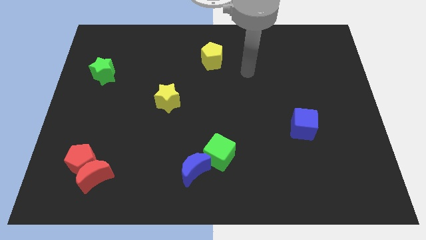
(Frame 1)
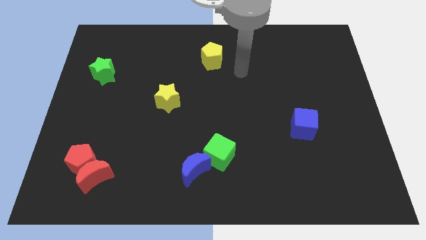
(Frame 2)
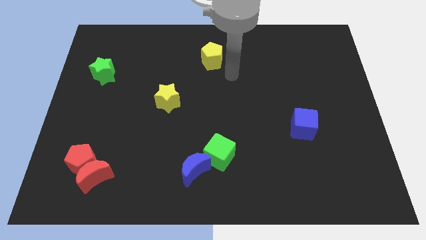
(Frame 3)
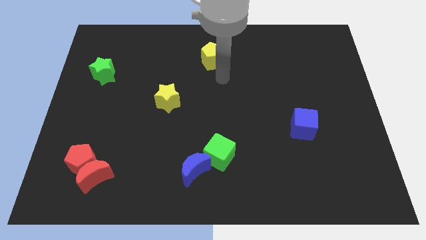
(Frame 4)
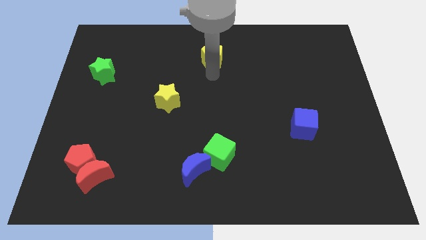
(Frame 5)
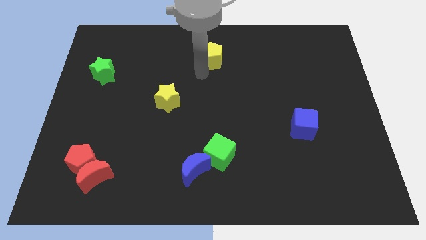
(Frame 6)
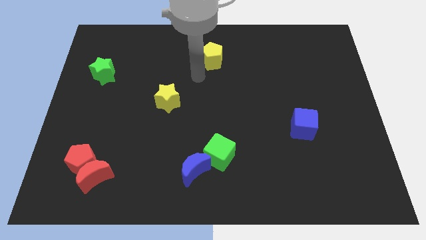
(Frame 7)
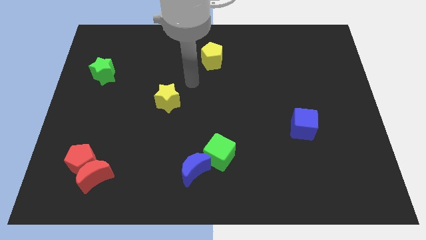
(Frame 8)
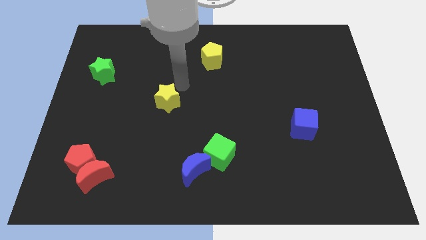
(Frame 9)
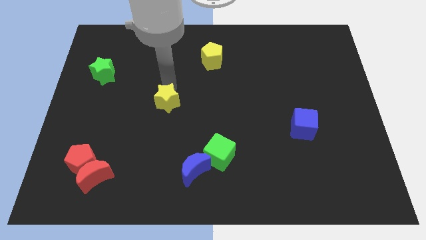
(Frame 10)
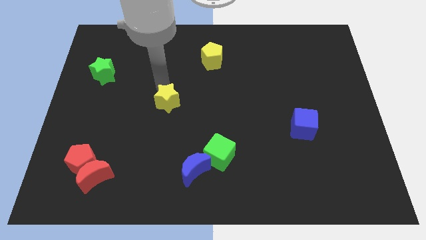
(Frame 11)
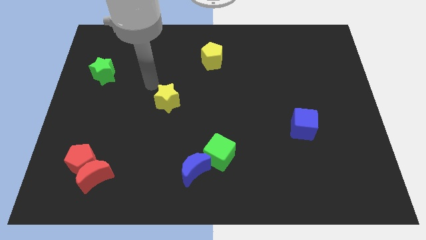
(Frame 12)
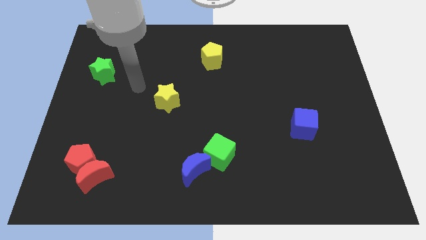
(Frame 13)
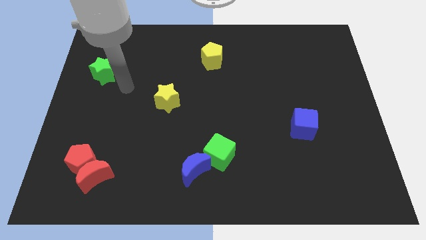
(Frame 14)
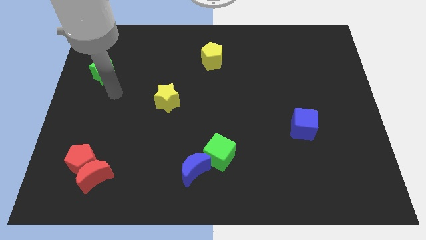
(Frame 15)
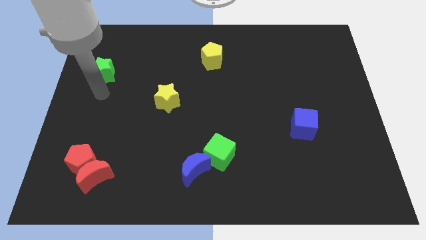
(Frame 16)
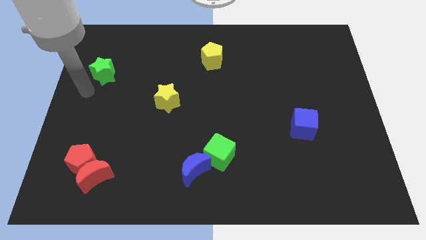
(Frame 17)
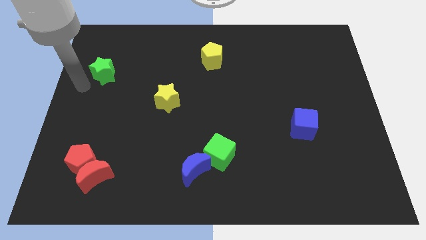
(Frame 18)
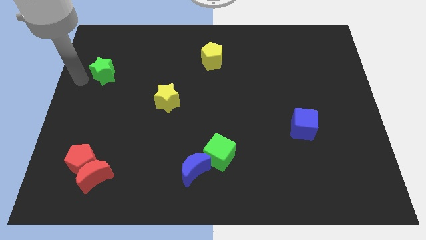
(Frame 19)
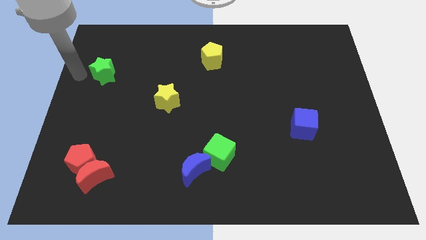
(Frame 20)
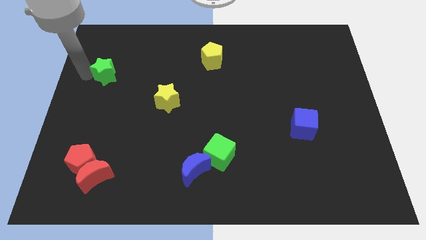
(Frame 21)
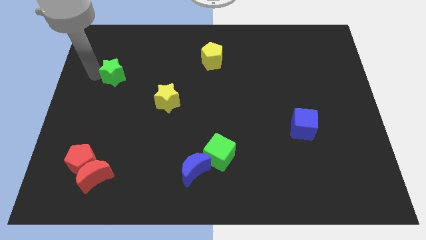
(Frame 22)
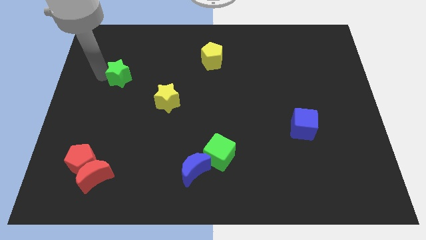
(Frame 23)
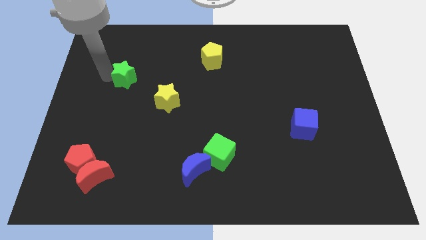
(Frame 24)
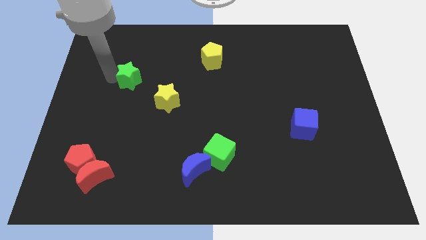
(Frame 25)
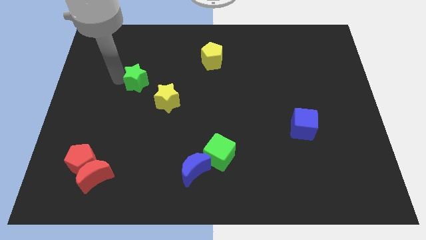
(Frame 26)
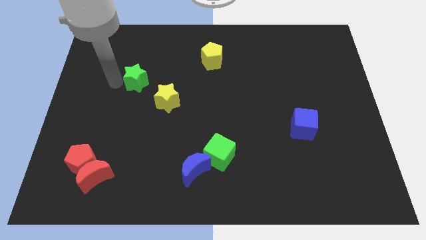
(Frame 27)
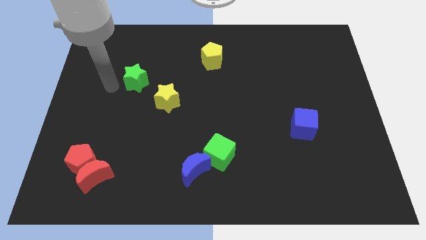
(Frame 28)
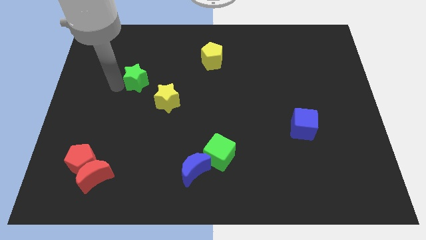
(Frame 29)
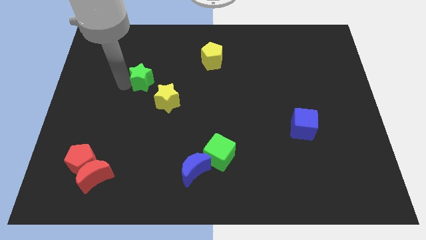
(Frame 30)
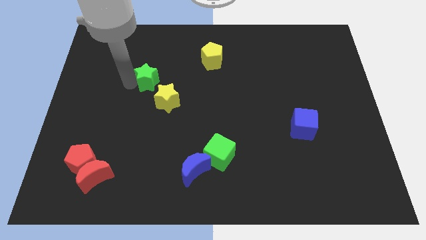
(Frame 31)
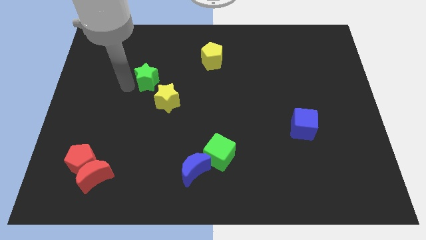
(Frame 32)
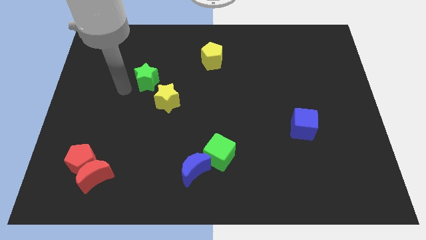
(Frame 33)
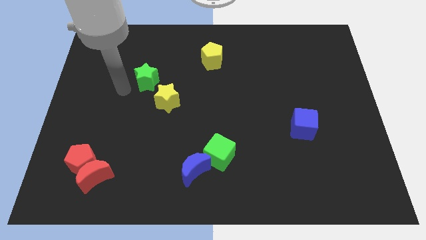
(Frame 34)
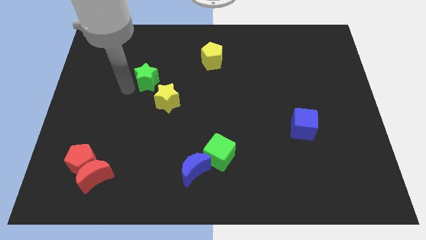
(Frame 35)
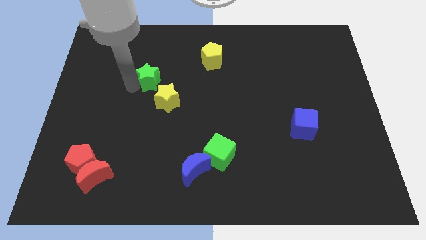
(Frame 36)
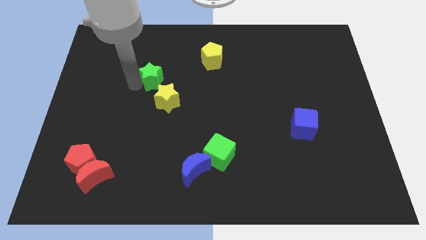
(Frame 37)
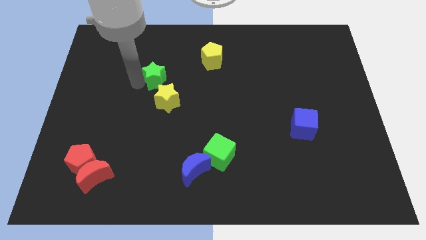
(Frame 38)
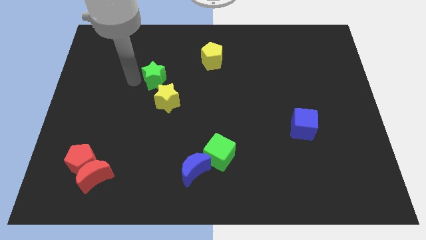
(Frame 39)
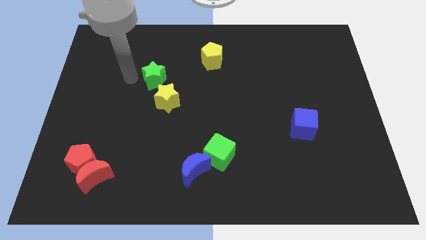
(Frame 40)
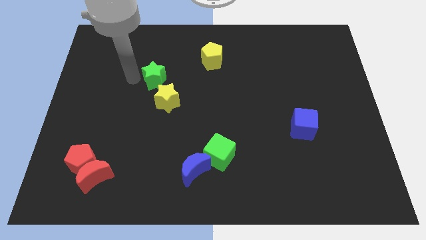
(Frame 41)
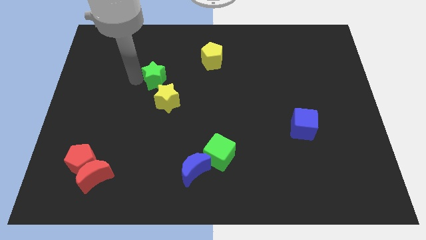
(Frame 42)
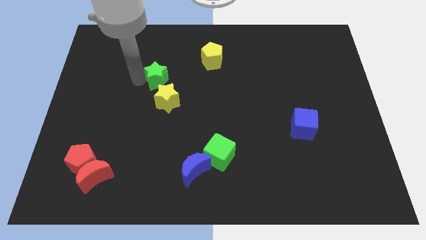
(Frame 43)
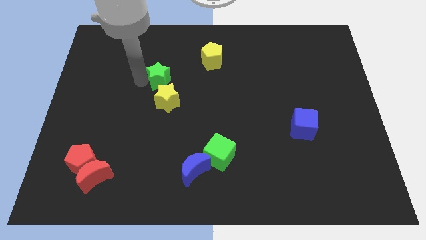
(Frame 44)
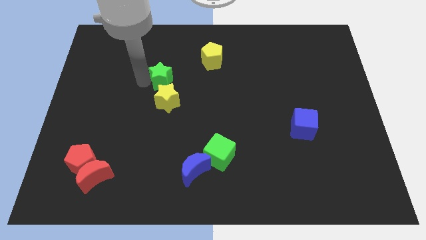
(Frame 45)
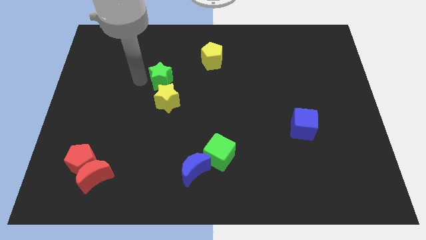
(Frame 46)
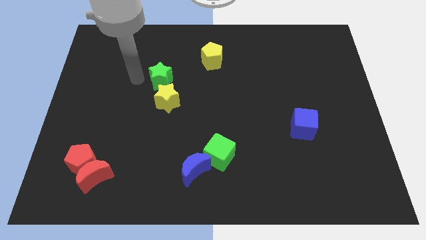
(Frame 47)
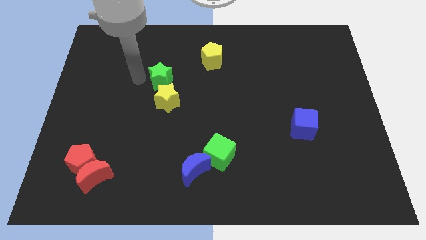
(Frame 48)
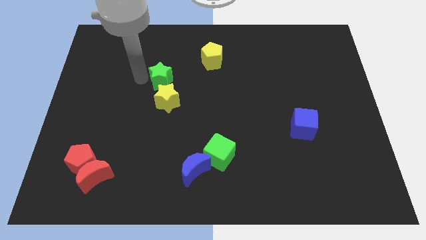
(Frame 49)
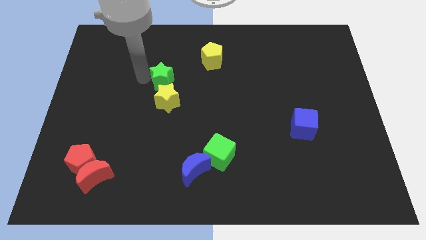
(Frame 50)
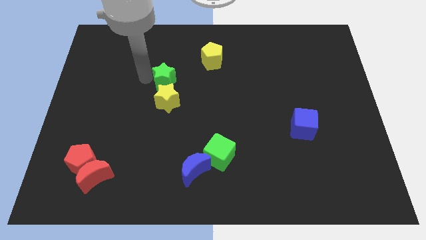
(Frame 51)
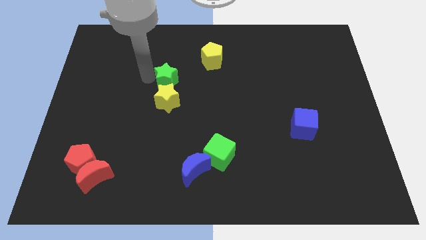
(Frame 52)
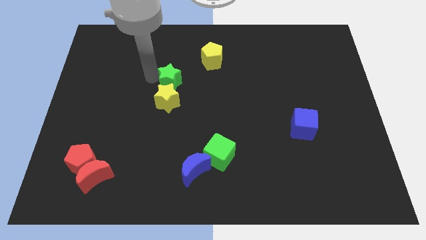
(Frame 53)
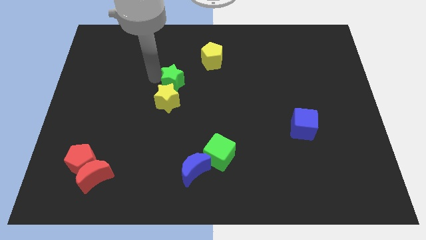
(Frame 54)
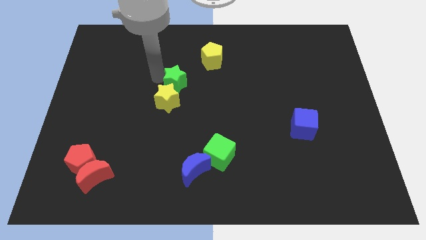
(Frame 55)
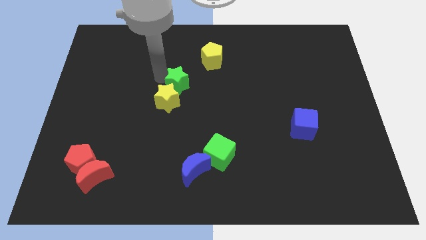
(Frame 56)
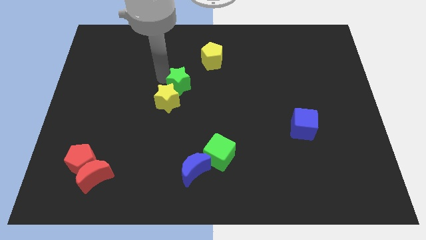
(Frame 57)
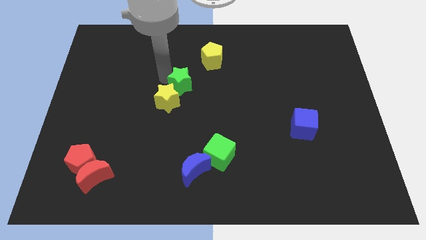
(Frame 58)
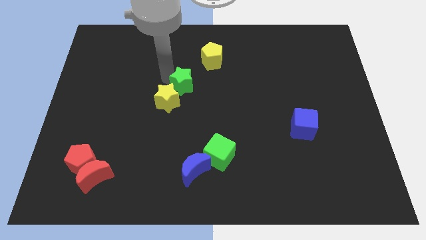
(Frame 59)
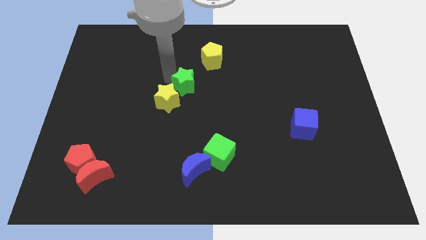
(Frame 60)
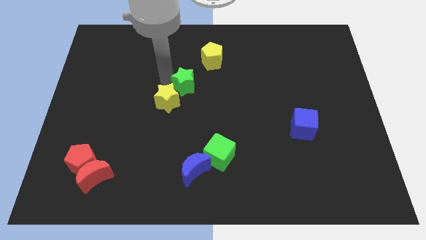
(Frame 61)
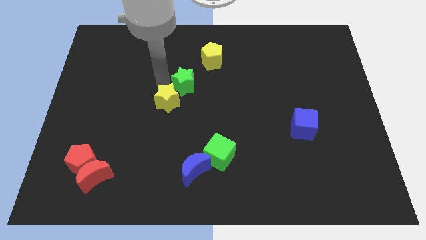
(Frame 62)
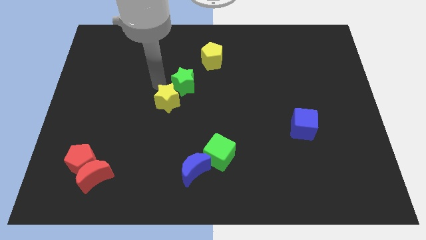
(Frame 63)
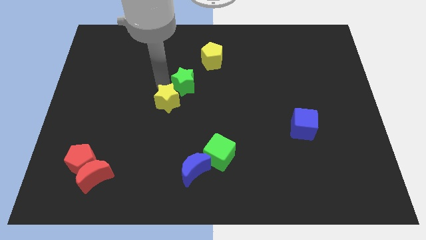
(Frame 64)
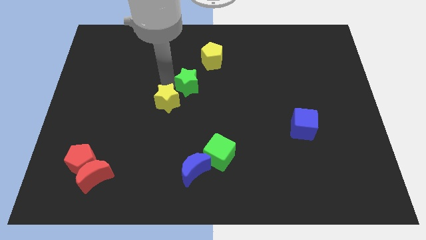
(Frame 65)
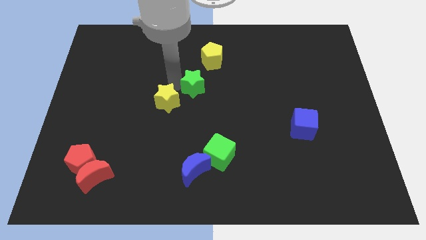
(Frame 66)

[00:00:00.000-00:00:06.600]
move the green star below the yellow pentagon

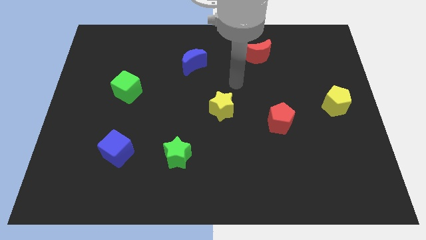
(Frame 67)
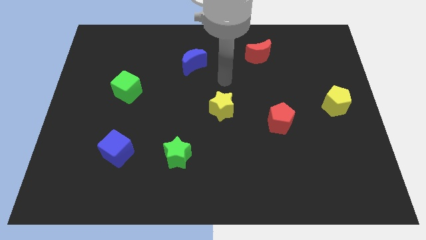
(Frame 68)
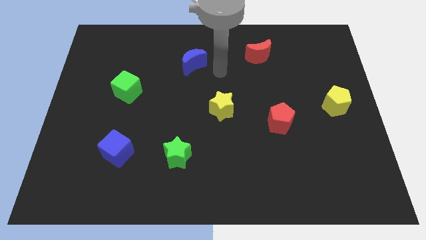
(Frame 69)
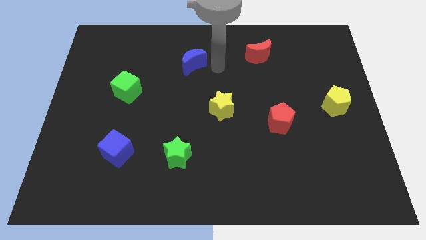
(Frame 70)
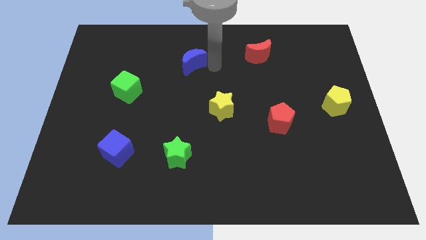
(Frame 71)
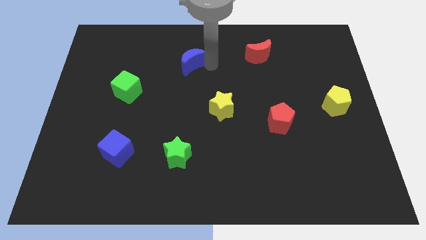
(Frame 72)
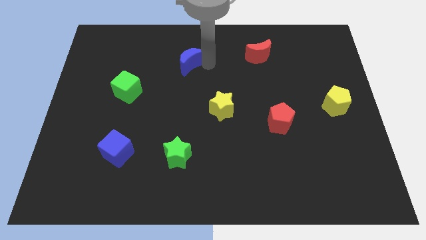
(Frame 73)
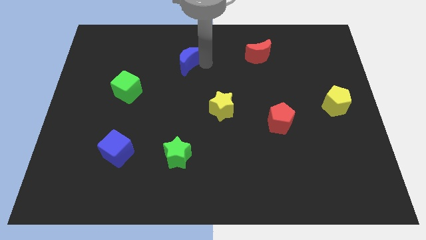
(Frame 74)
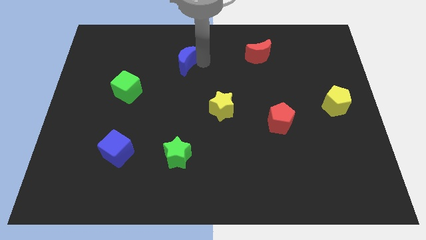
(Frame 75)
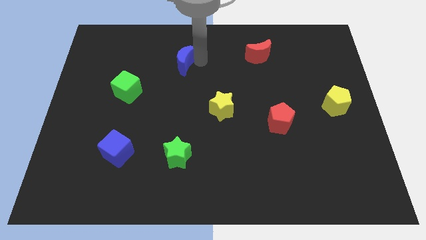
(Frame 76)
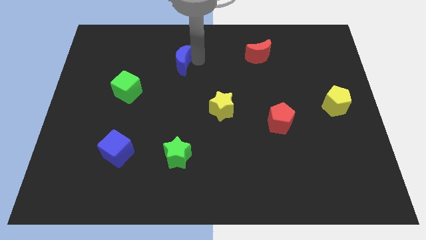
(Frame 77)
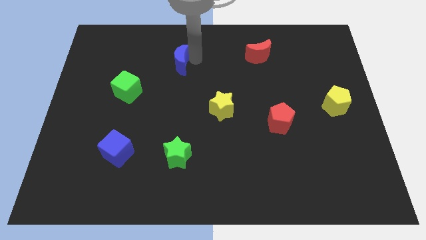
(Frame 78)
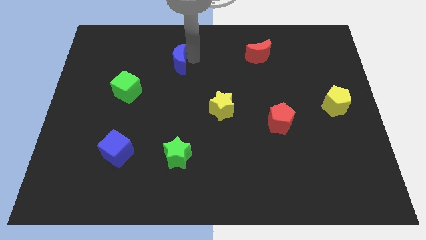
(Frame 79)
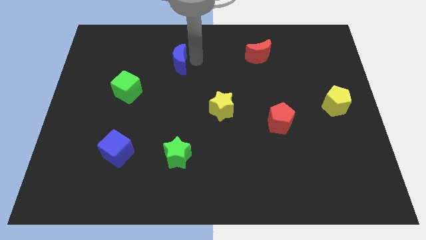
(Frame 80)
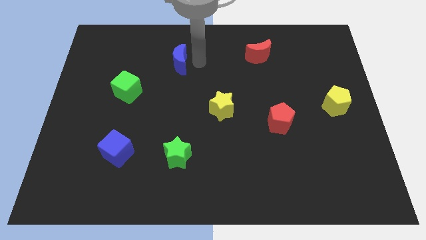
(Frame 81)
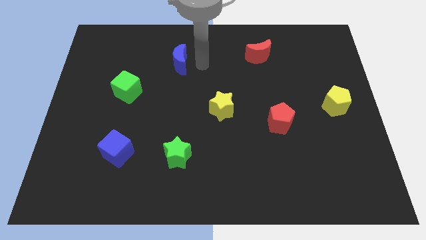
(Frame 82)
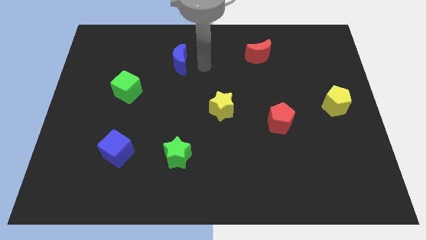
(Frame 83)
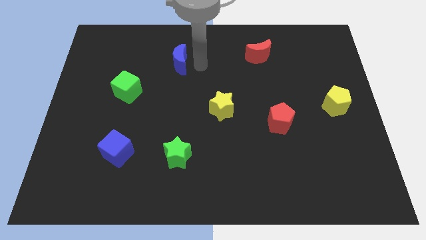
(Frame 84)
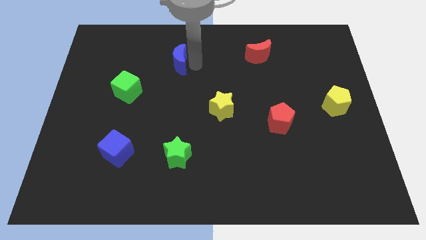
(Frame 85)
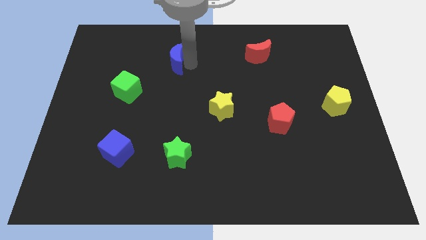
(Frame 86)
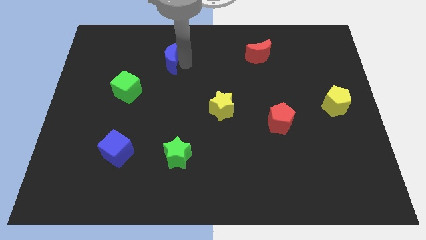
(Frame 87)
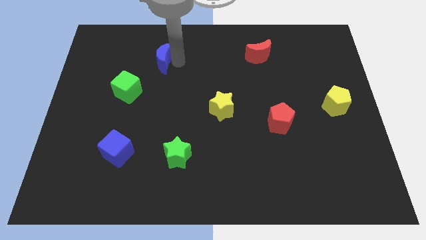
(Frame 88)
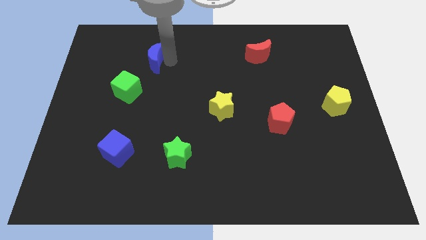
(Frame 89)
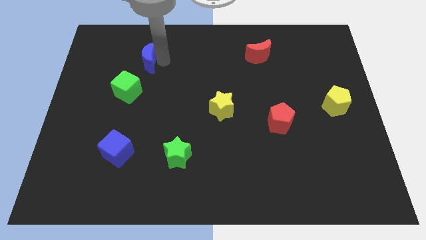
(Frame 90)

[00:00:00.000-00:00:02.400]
move the blue moon to the top of the green cube
